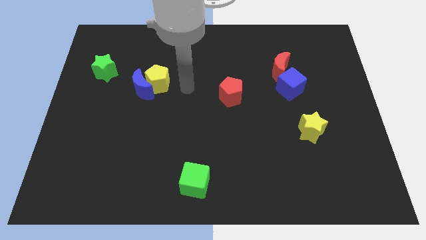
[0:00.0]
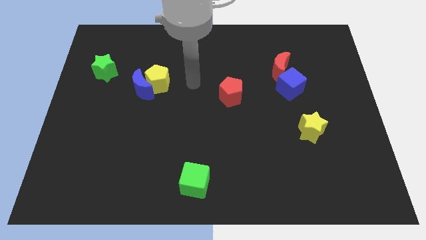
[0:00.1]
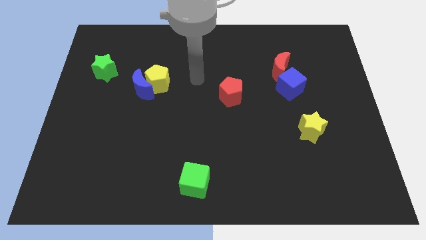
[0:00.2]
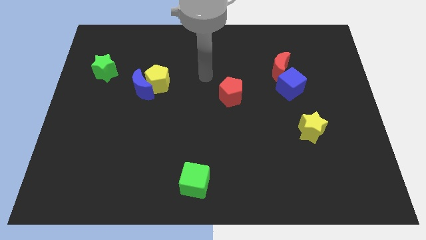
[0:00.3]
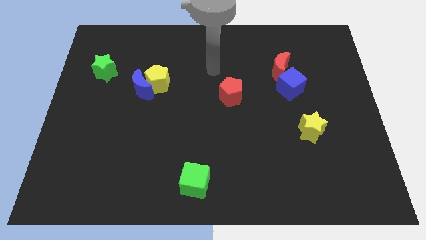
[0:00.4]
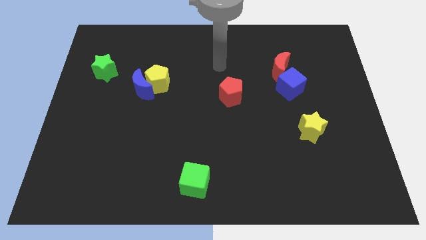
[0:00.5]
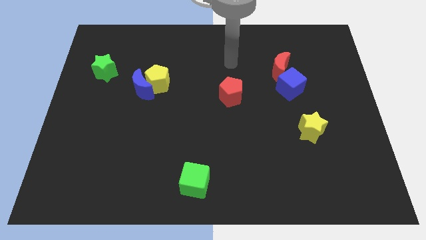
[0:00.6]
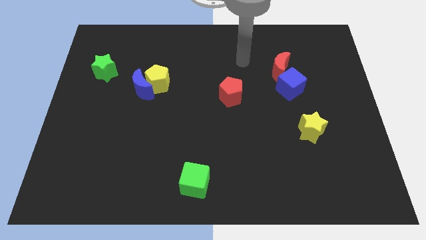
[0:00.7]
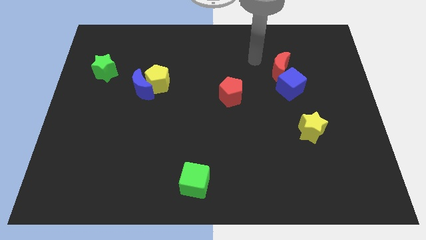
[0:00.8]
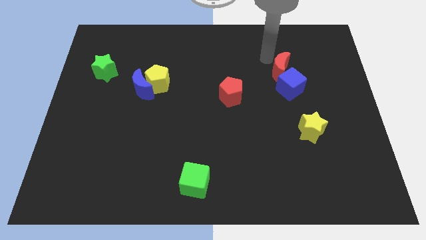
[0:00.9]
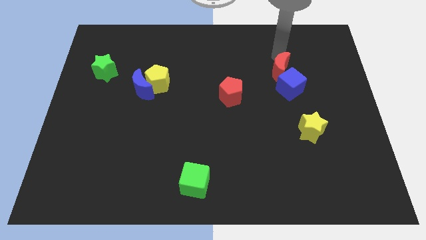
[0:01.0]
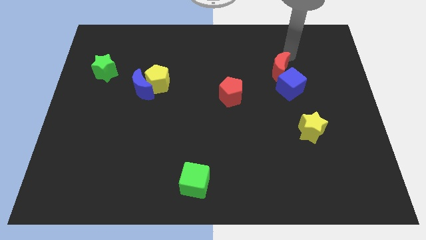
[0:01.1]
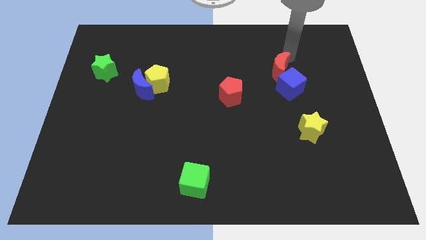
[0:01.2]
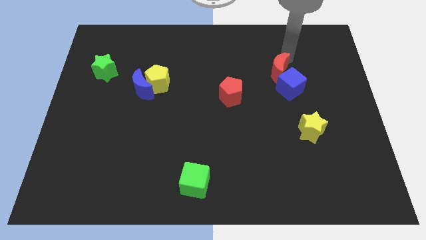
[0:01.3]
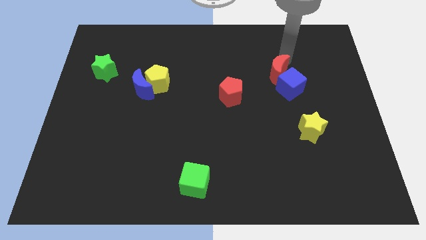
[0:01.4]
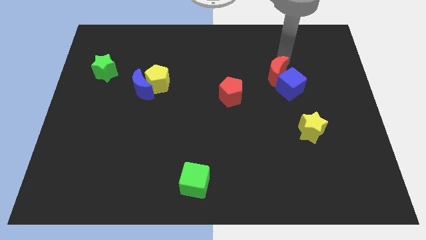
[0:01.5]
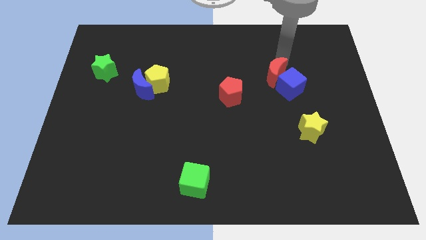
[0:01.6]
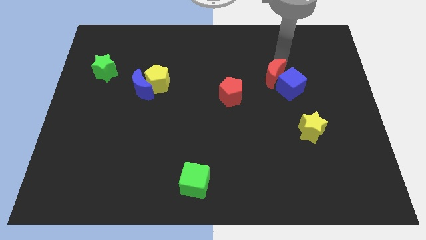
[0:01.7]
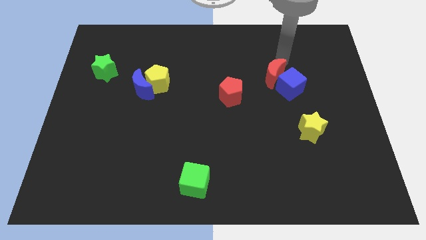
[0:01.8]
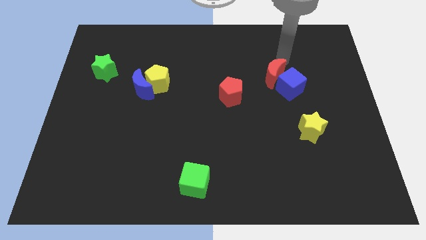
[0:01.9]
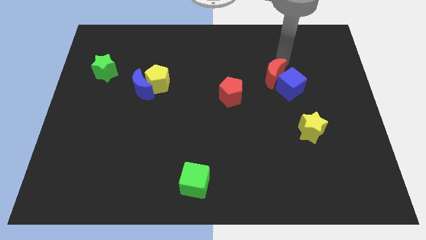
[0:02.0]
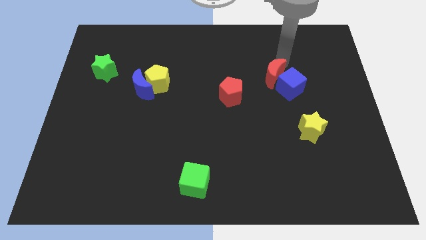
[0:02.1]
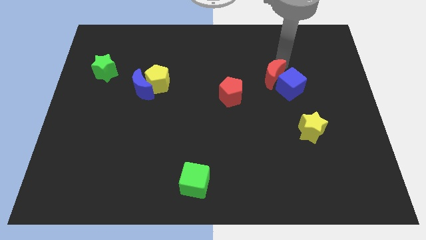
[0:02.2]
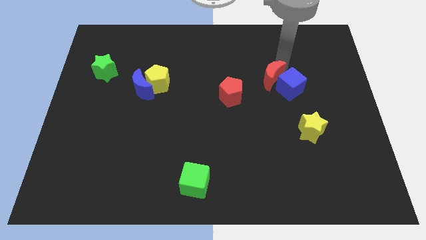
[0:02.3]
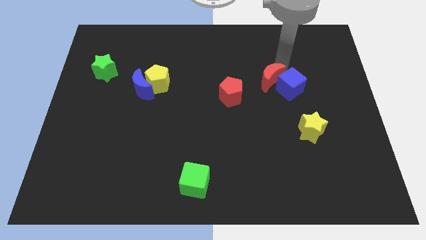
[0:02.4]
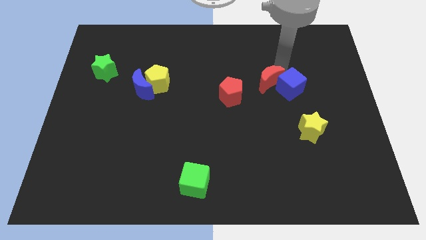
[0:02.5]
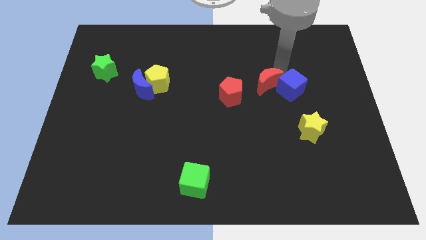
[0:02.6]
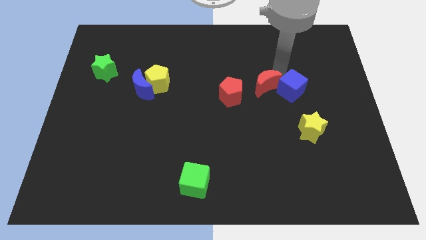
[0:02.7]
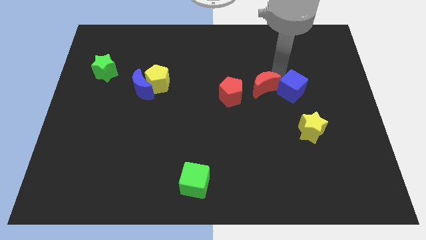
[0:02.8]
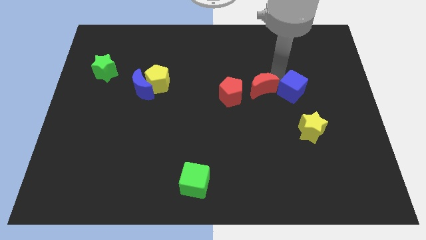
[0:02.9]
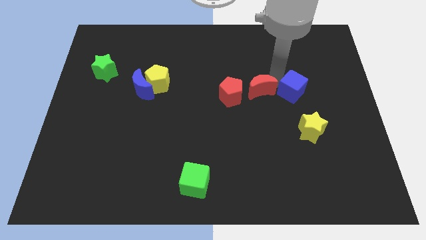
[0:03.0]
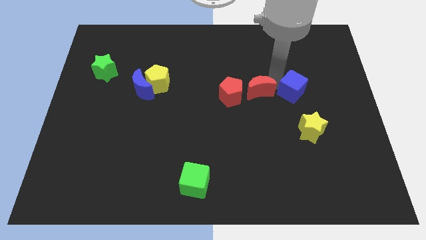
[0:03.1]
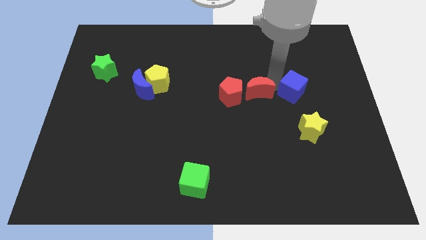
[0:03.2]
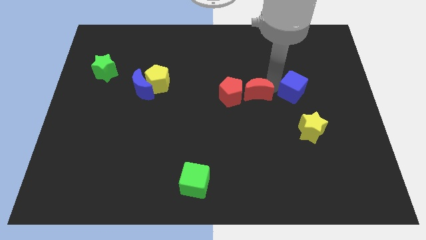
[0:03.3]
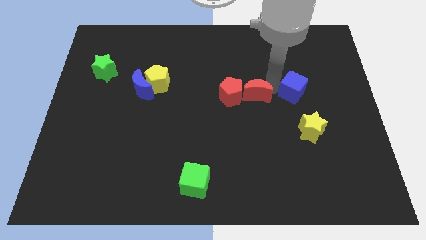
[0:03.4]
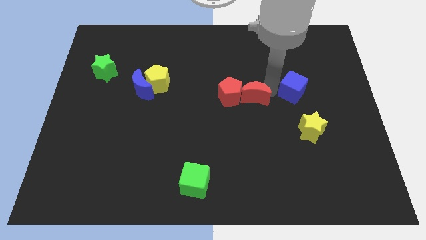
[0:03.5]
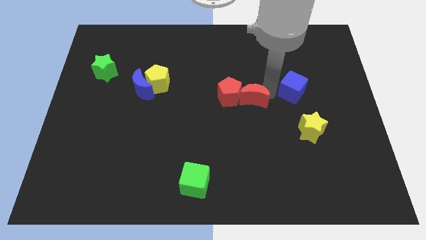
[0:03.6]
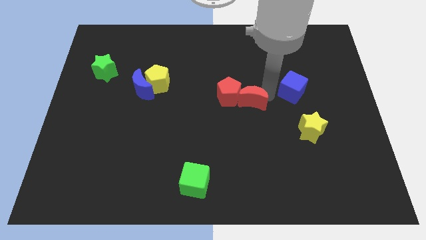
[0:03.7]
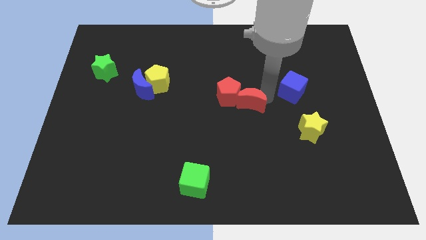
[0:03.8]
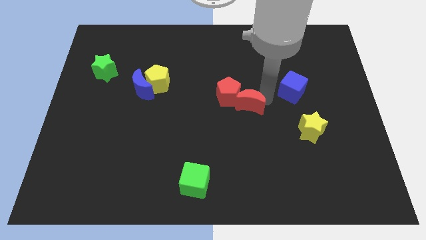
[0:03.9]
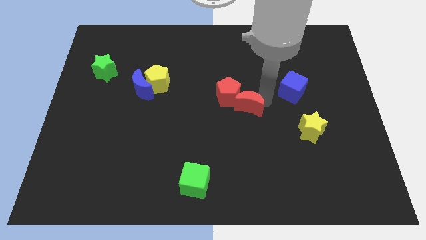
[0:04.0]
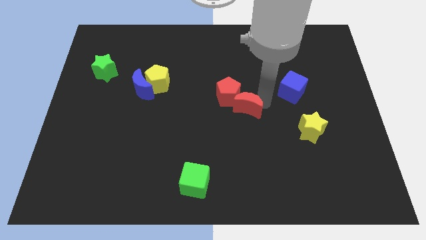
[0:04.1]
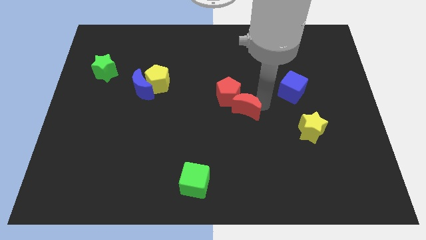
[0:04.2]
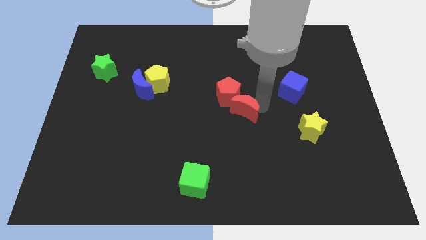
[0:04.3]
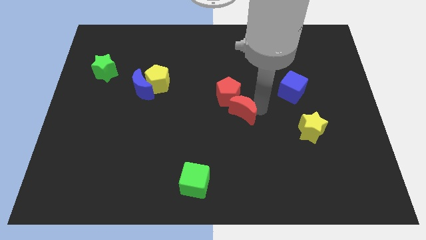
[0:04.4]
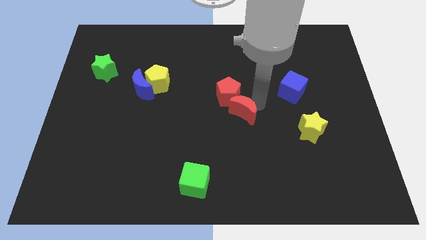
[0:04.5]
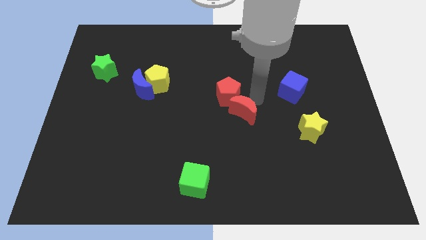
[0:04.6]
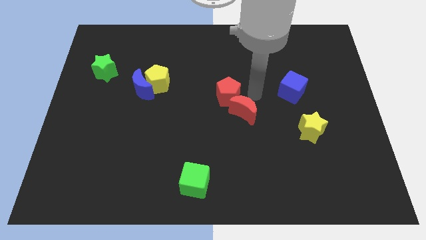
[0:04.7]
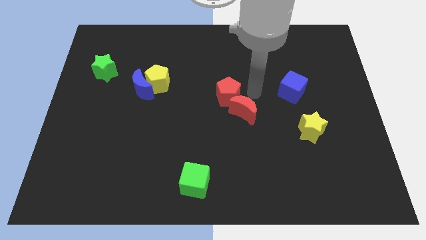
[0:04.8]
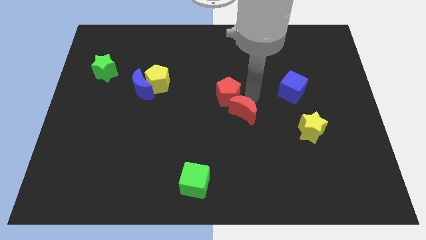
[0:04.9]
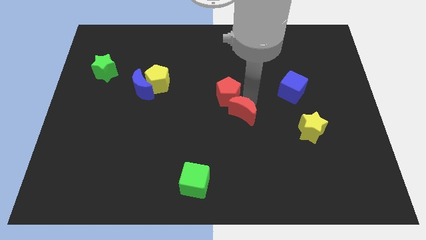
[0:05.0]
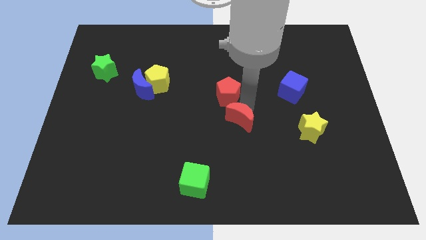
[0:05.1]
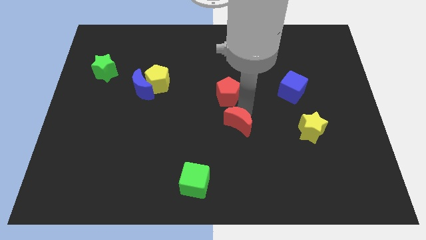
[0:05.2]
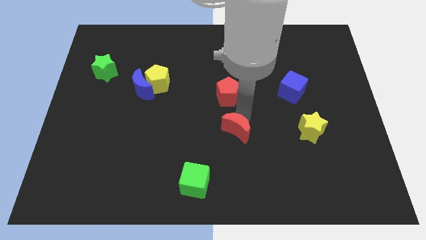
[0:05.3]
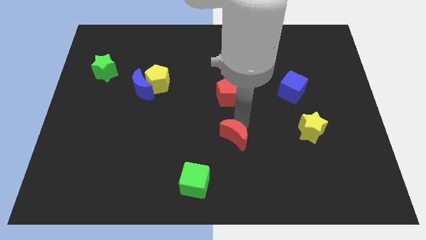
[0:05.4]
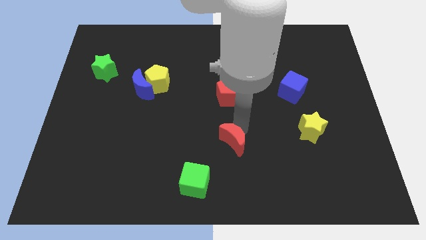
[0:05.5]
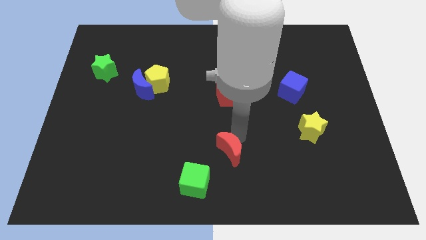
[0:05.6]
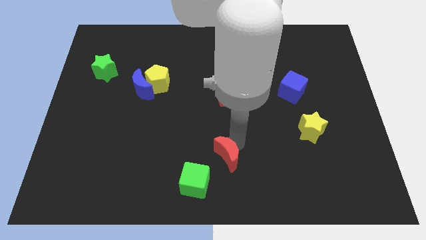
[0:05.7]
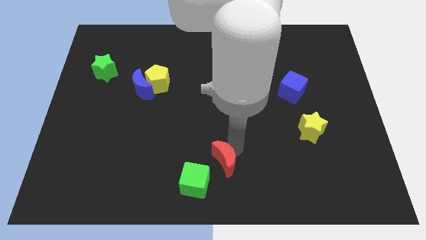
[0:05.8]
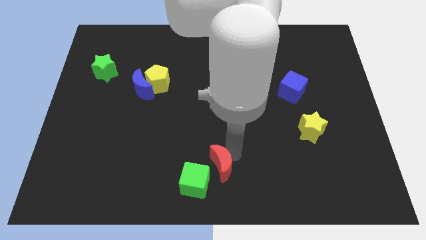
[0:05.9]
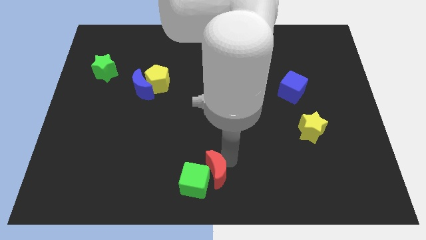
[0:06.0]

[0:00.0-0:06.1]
slide the red moon towards the green cube

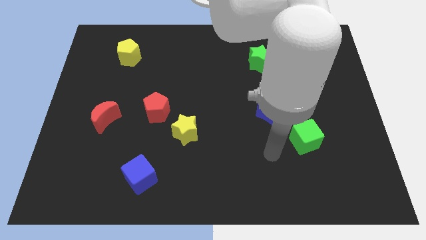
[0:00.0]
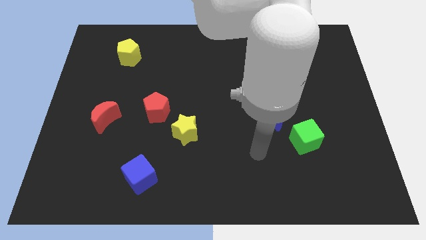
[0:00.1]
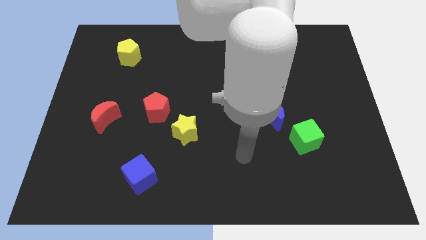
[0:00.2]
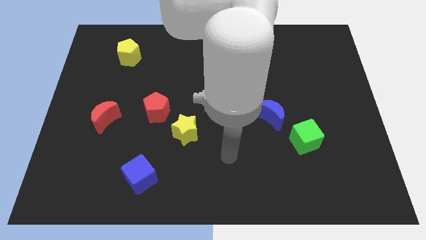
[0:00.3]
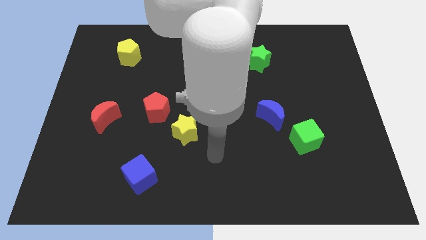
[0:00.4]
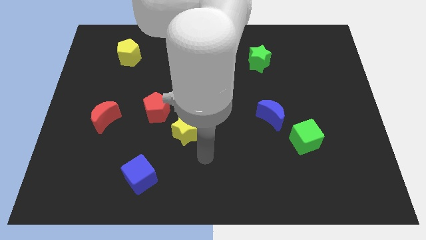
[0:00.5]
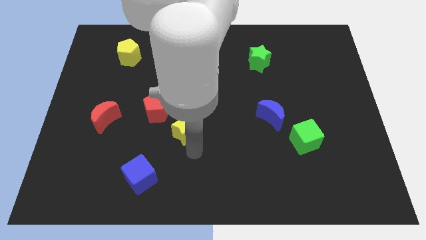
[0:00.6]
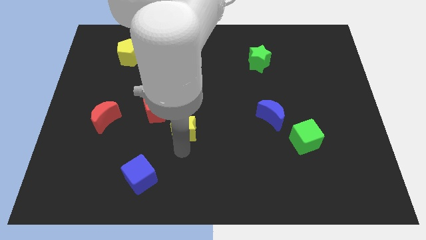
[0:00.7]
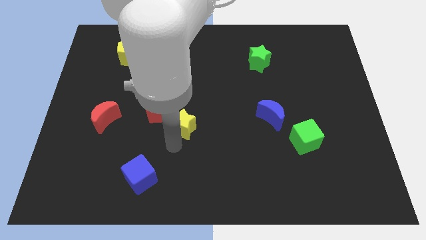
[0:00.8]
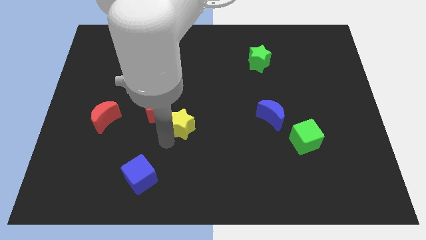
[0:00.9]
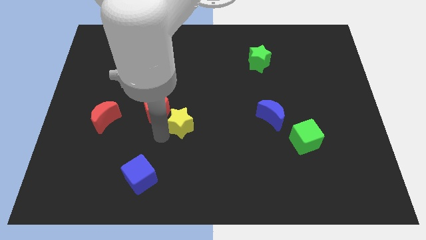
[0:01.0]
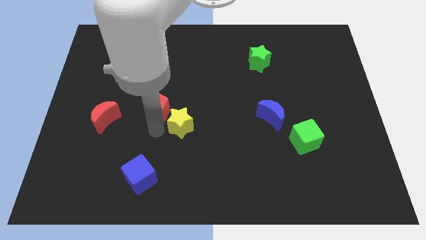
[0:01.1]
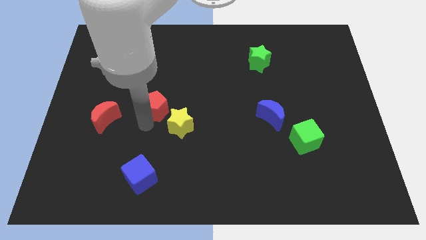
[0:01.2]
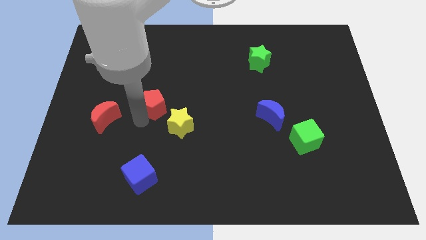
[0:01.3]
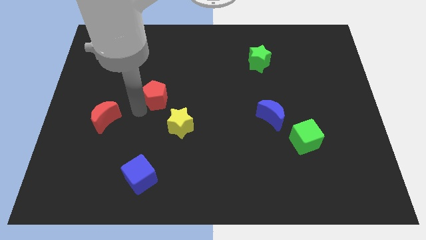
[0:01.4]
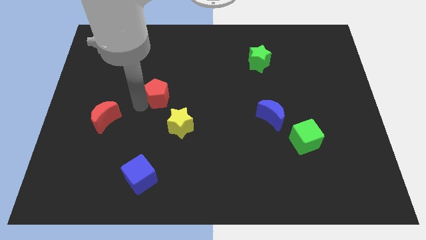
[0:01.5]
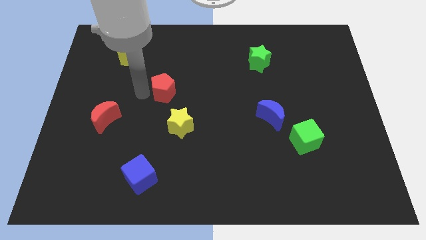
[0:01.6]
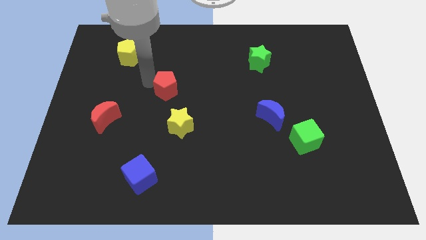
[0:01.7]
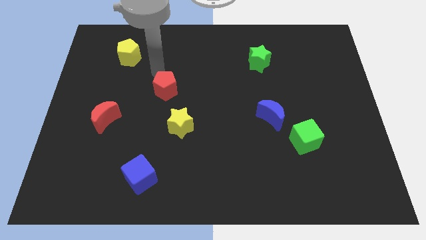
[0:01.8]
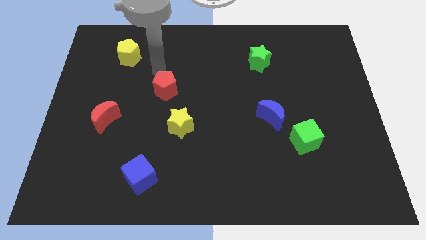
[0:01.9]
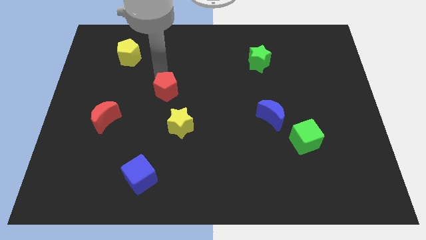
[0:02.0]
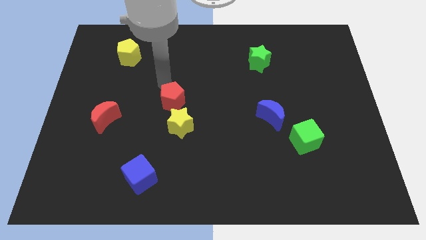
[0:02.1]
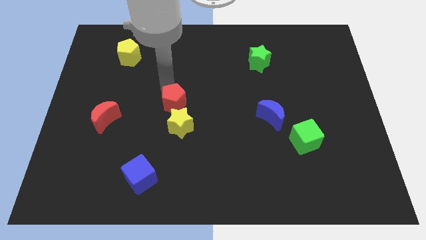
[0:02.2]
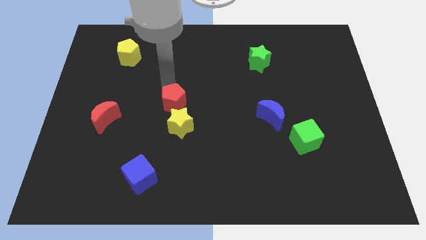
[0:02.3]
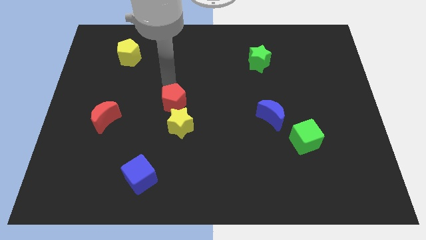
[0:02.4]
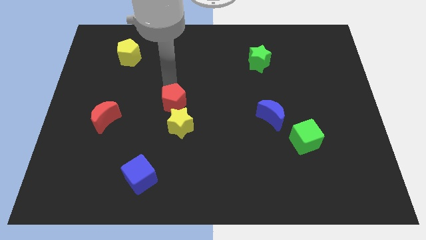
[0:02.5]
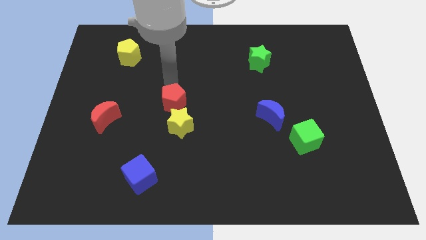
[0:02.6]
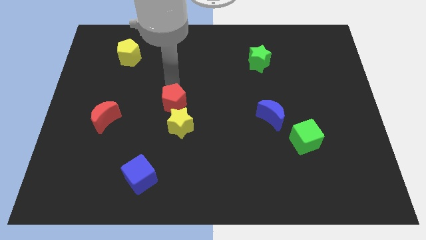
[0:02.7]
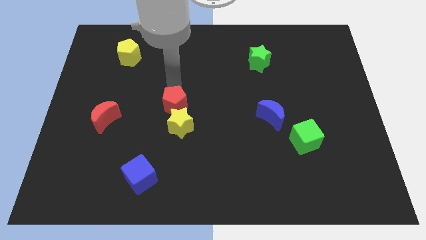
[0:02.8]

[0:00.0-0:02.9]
put the red pentagon towards the yellow star
